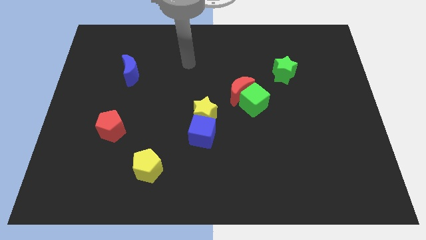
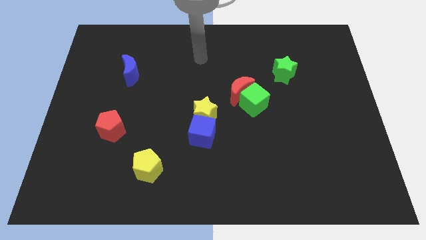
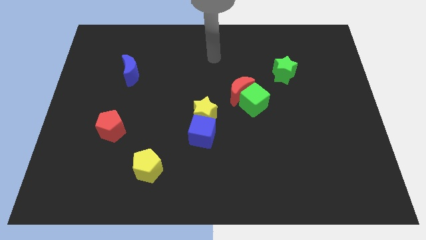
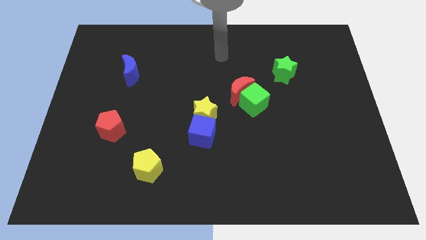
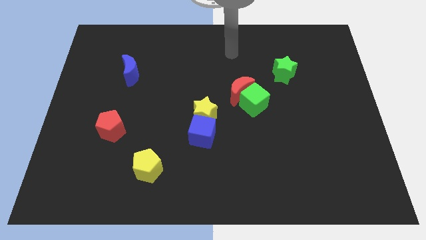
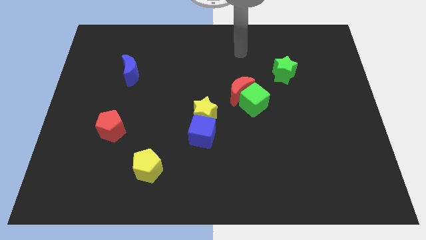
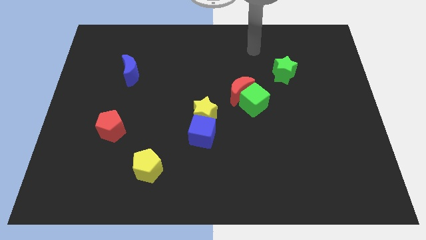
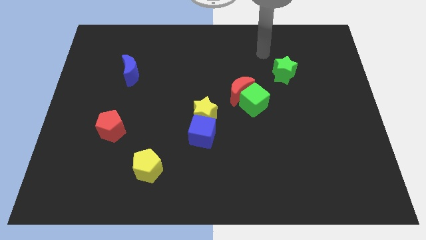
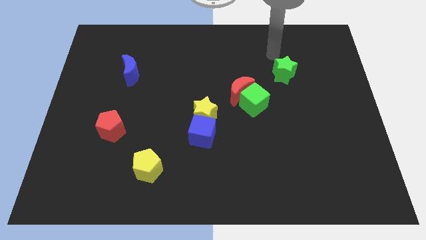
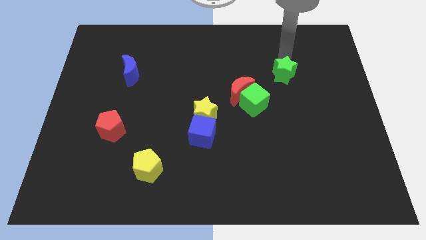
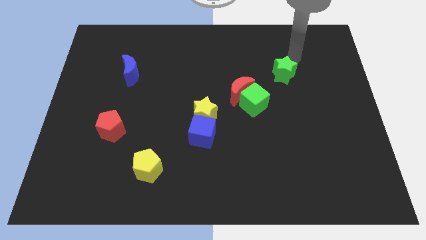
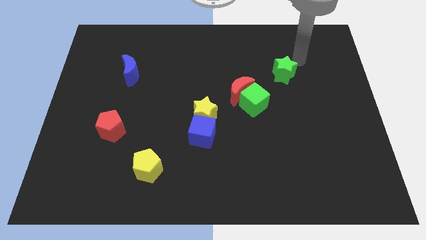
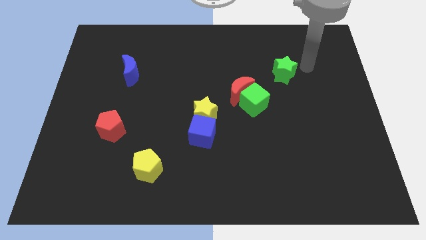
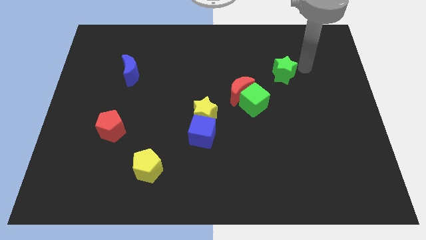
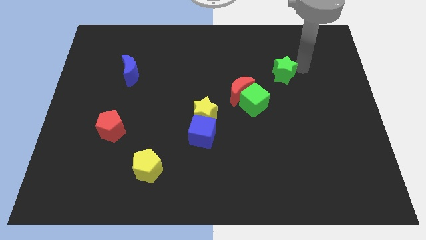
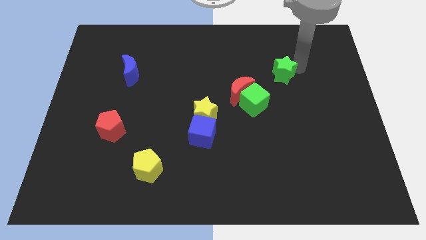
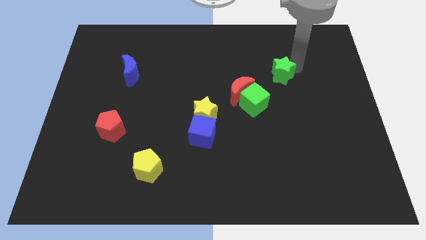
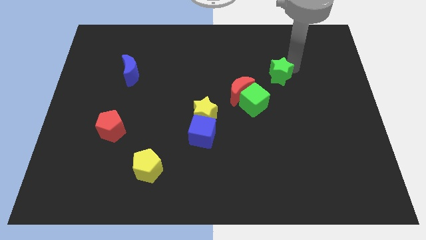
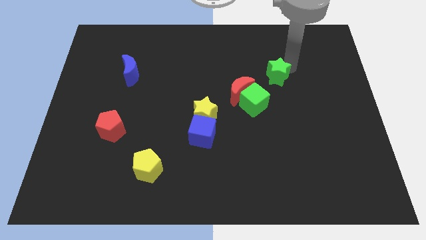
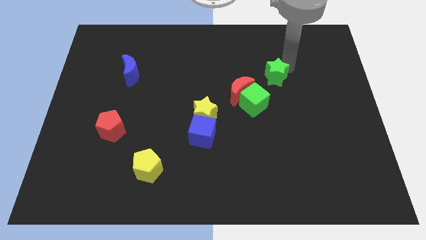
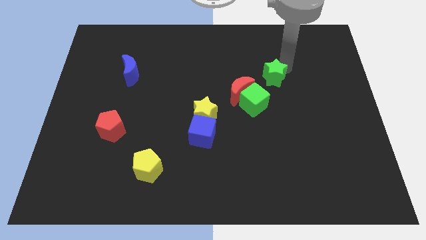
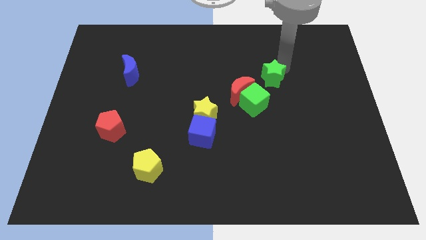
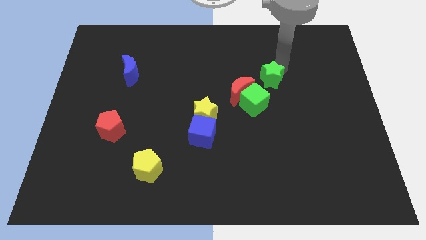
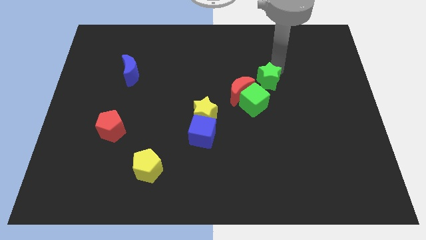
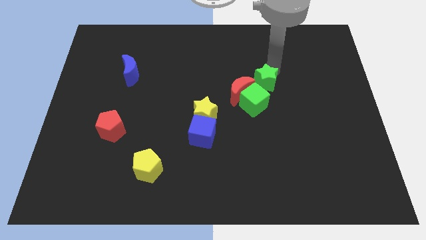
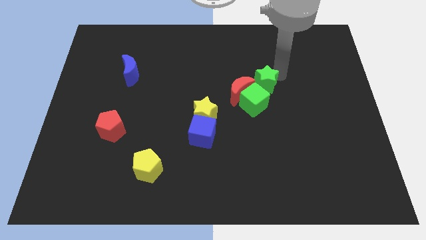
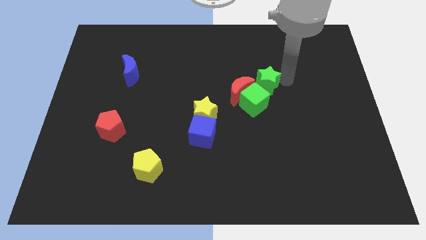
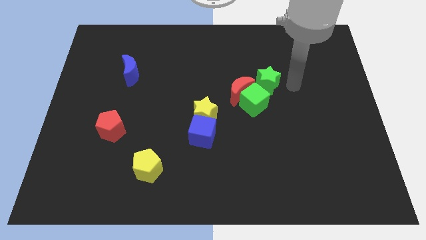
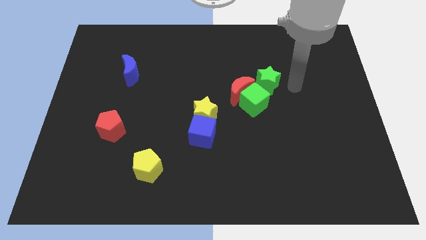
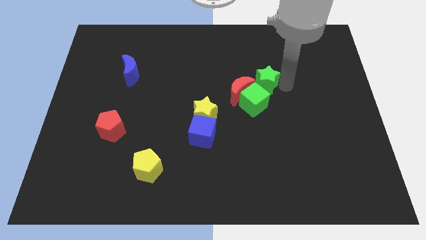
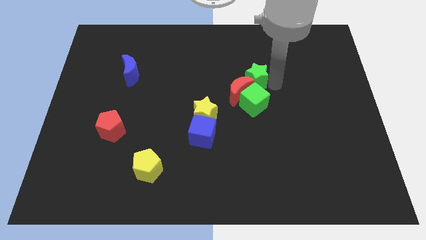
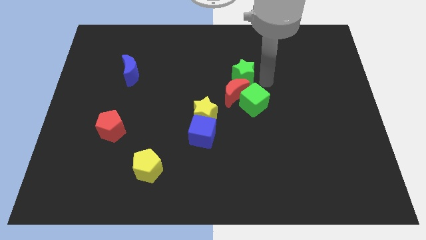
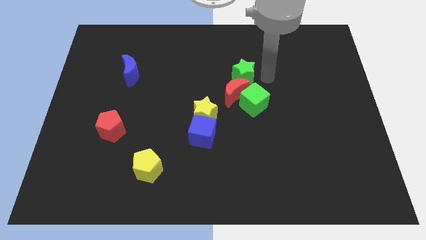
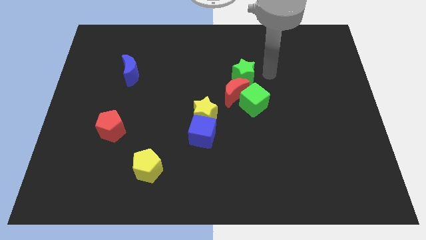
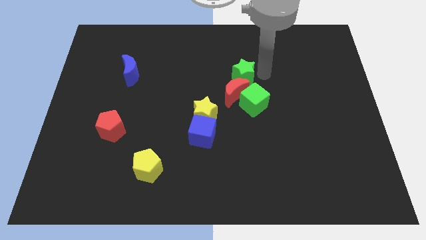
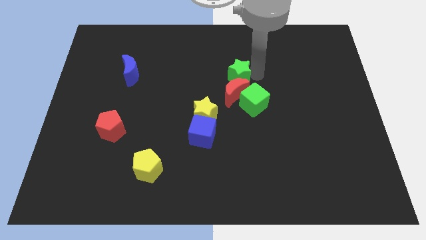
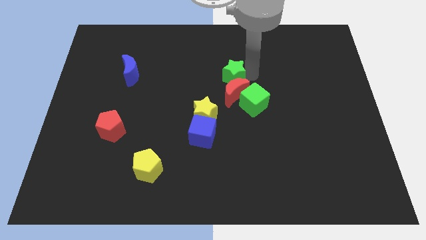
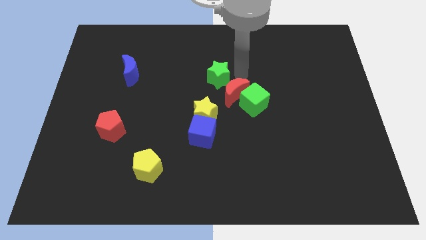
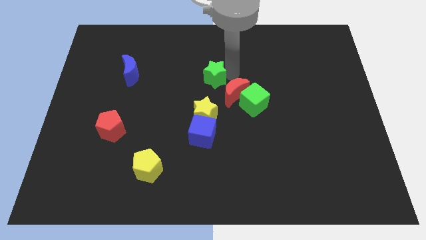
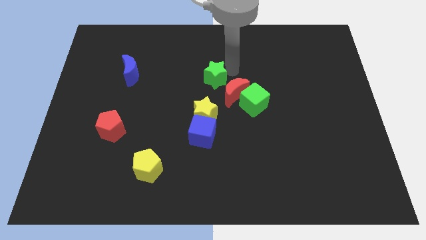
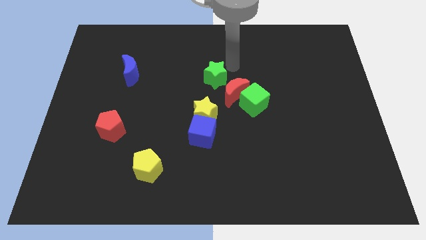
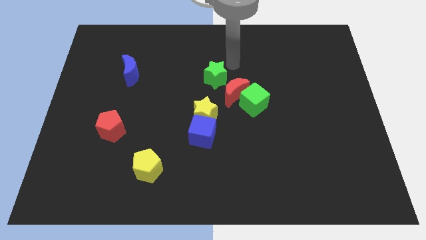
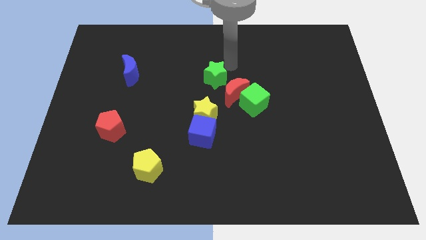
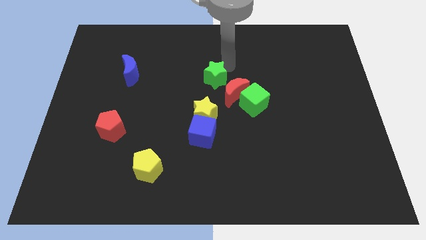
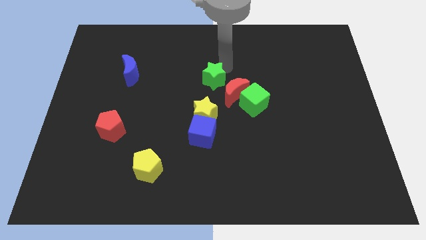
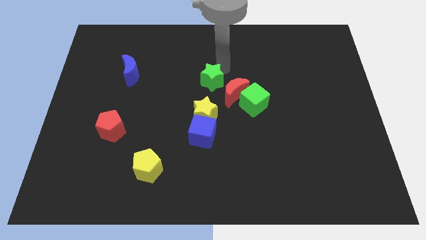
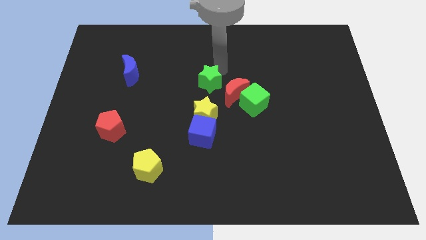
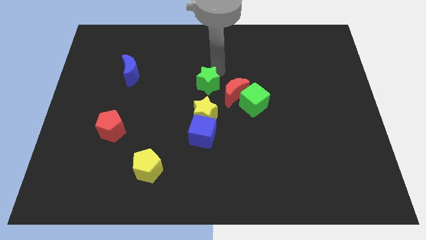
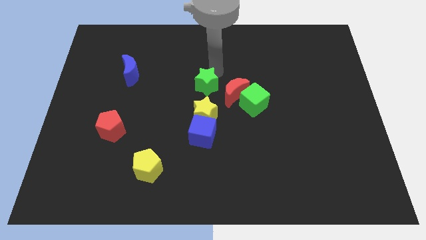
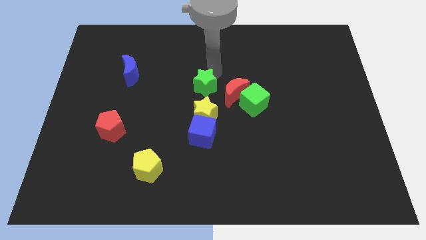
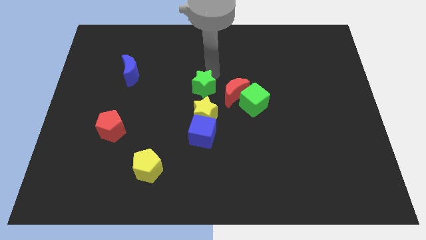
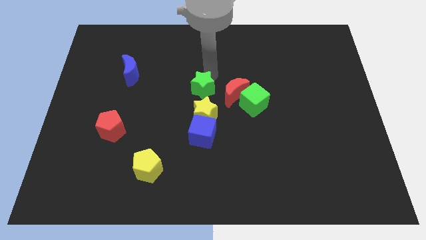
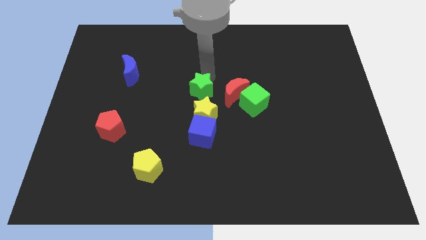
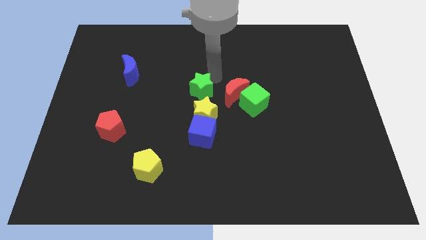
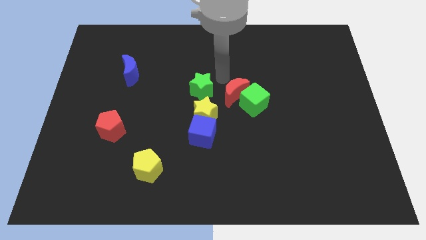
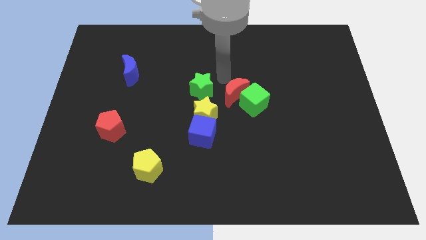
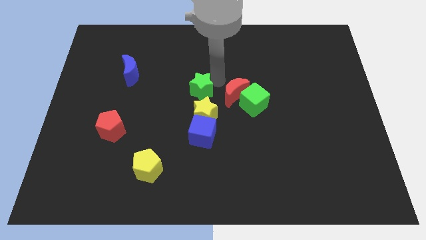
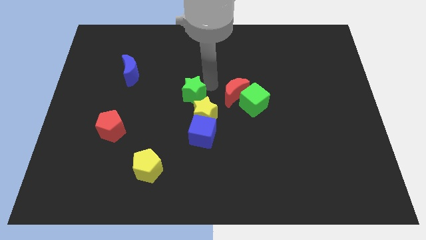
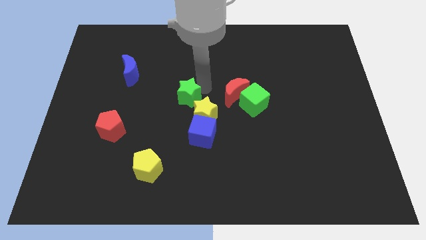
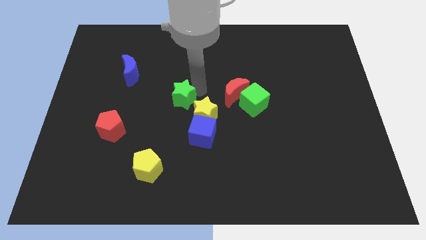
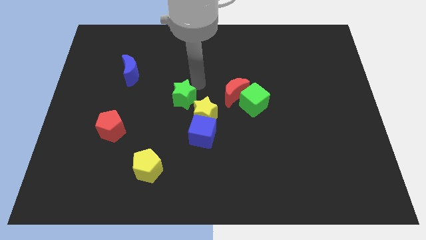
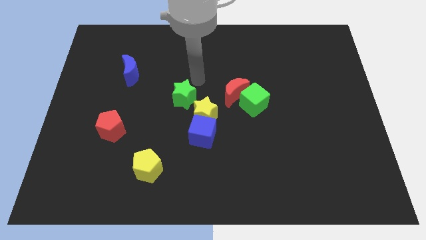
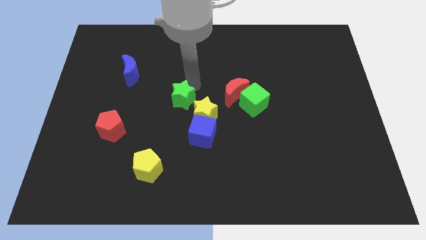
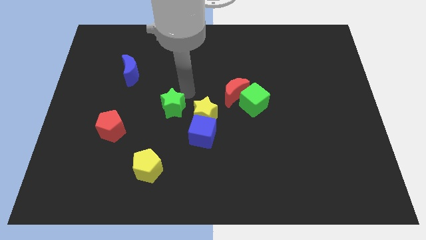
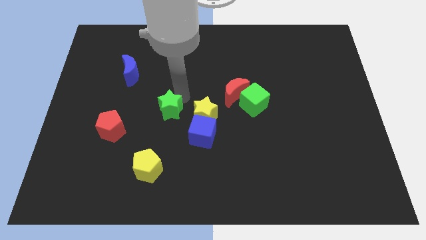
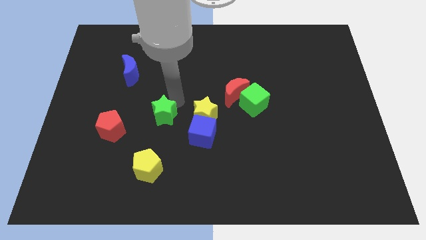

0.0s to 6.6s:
push the green star just right of the red pentagon

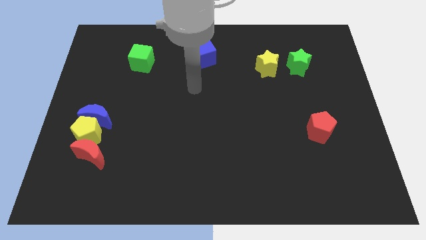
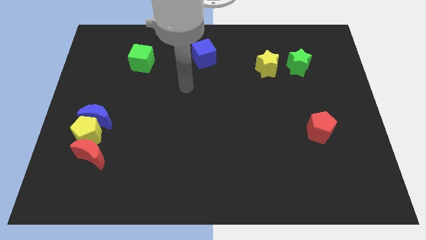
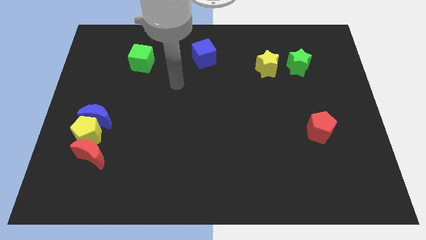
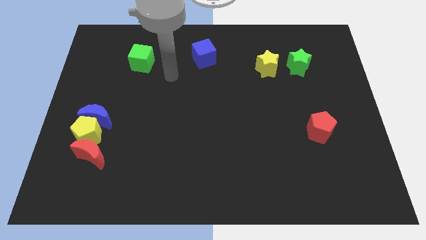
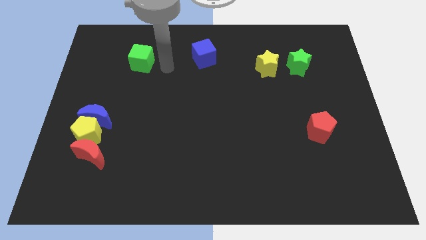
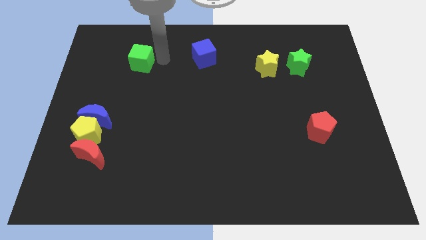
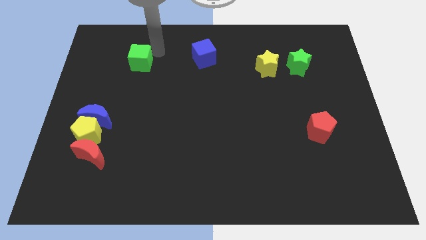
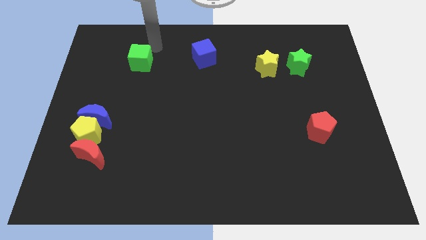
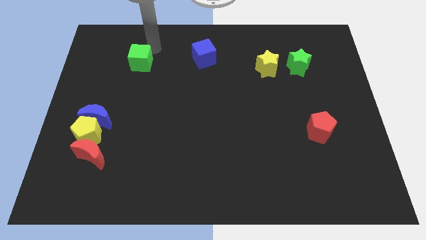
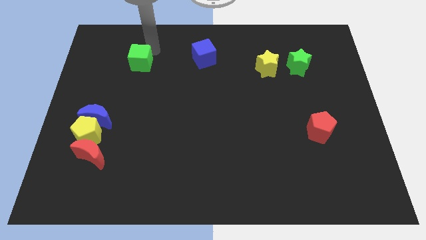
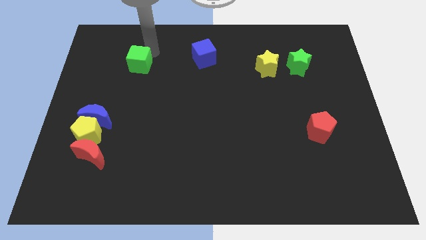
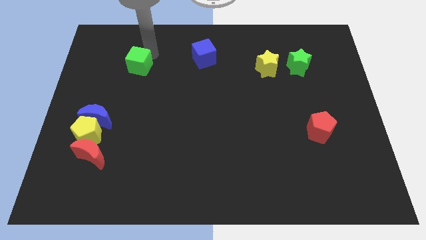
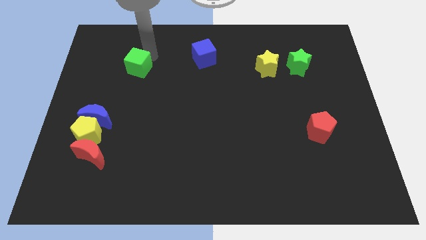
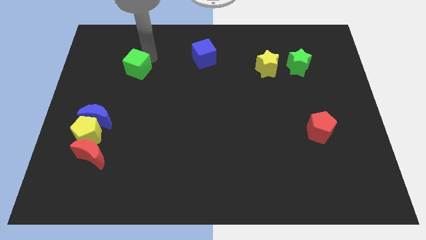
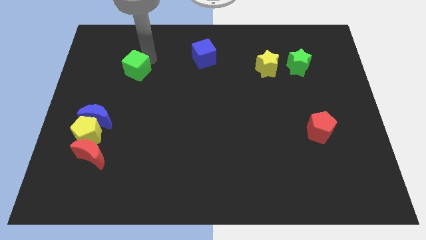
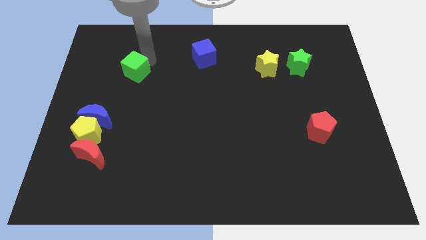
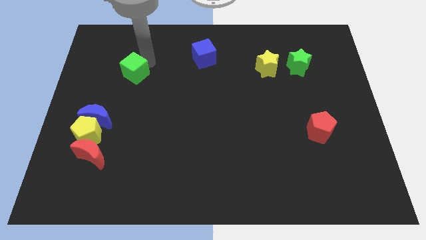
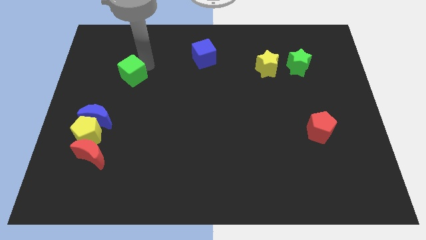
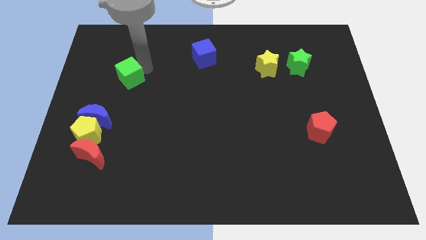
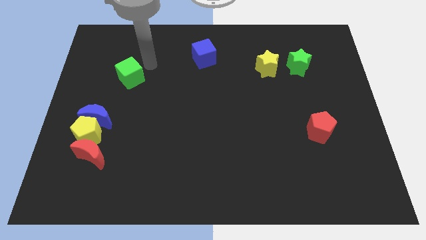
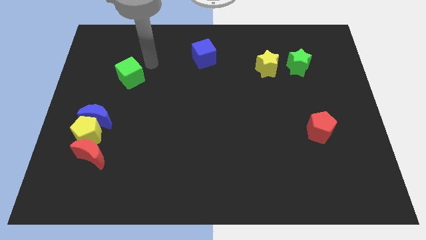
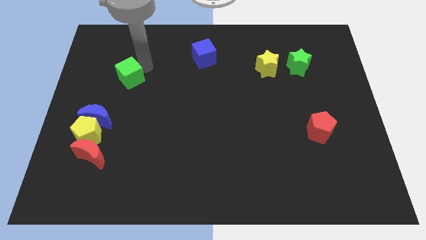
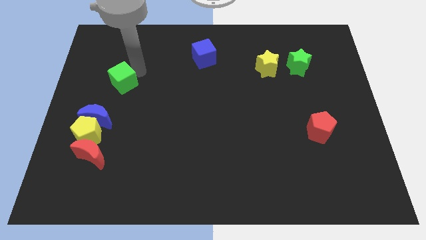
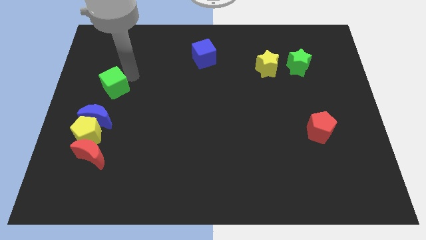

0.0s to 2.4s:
put the green cube above the yellow pentagon
